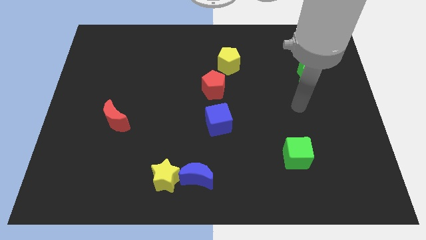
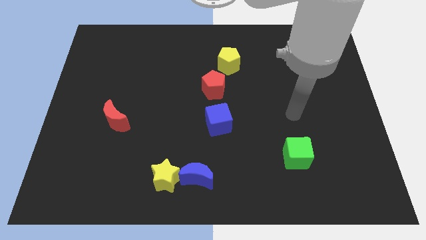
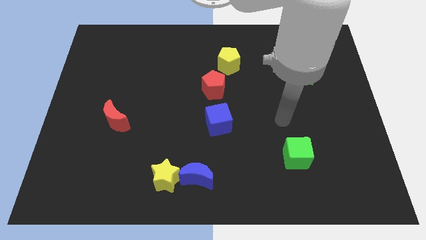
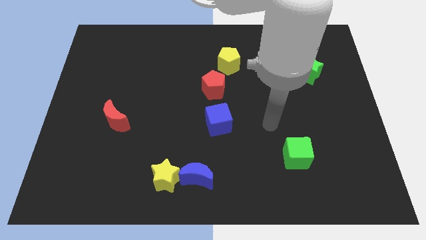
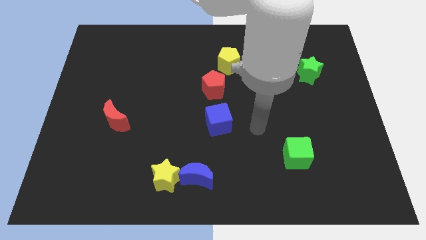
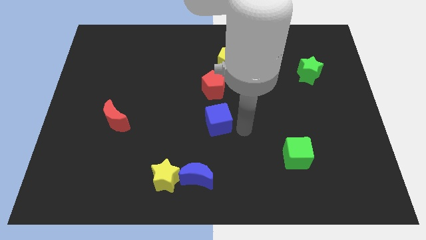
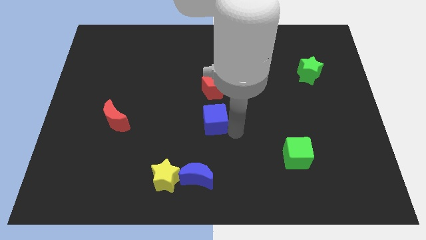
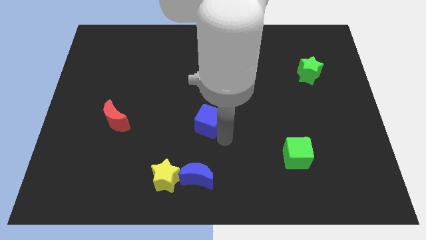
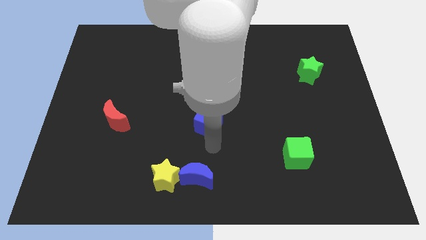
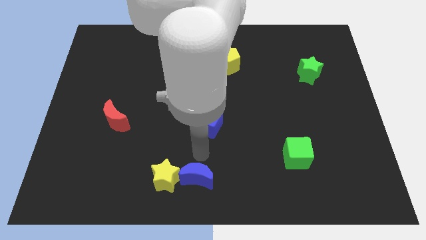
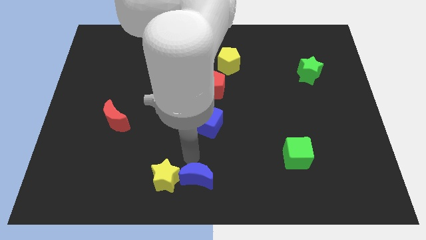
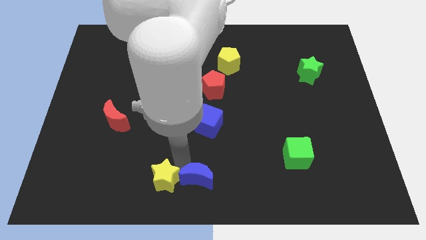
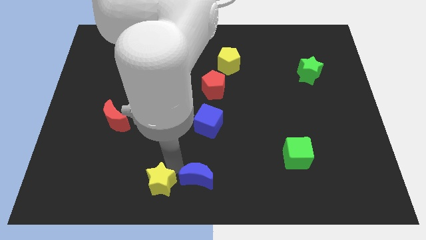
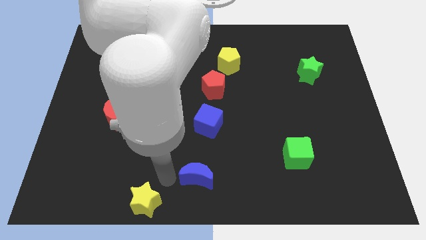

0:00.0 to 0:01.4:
pull the blue moon apart from the yellow star

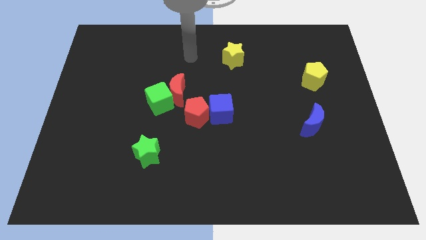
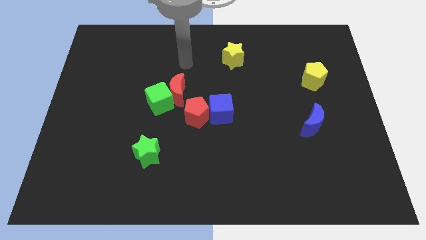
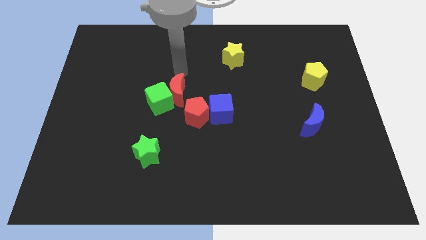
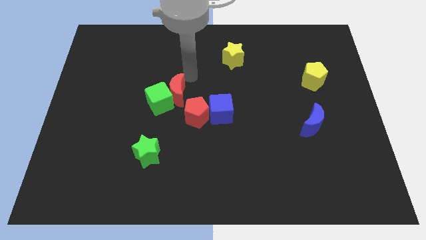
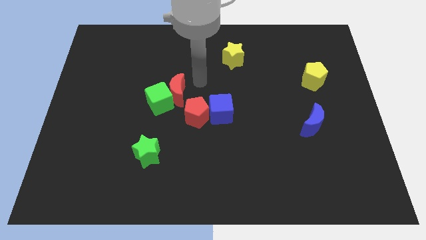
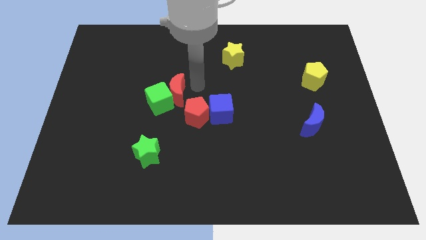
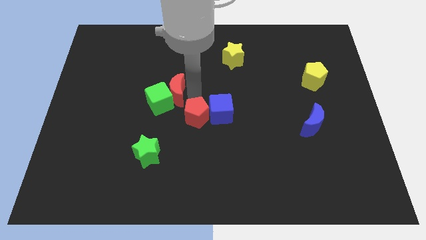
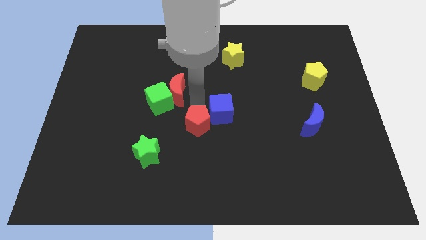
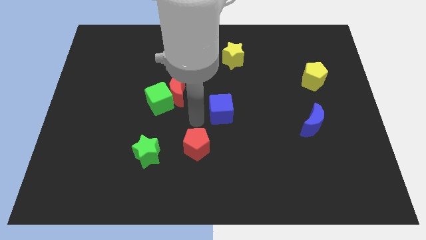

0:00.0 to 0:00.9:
pull the blue cube apart from the red pentagon

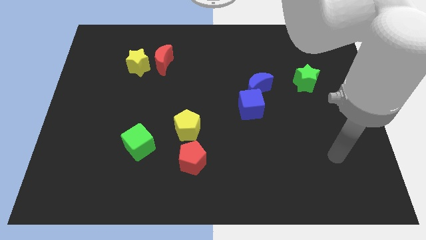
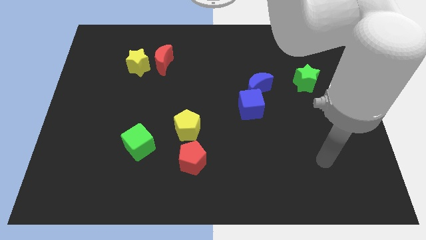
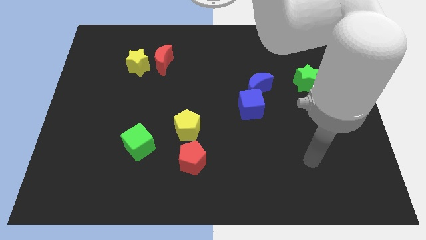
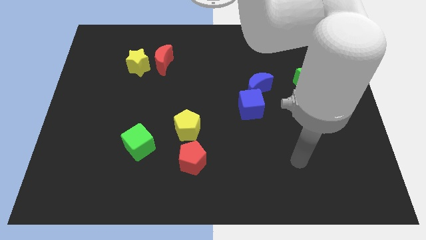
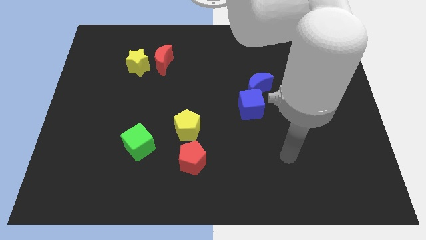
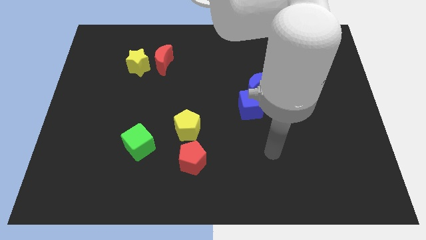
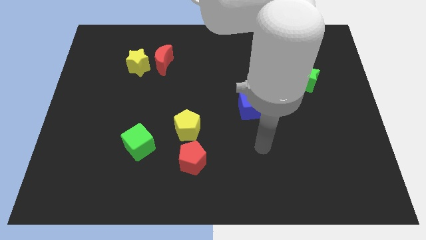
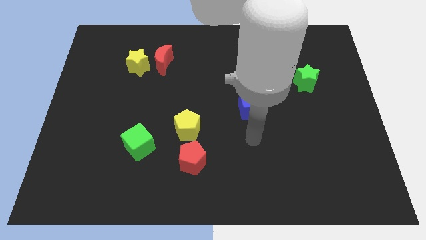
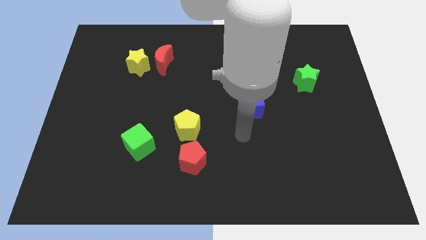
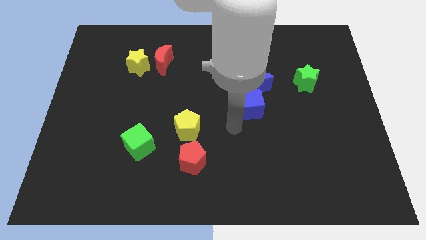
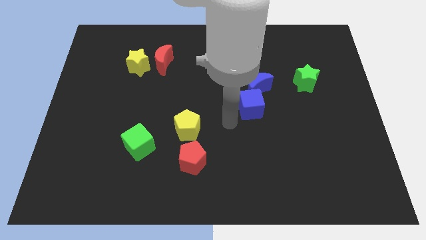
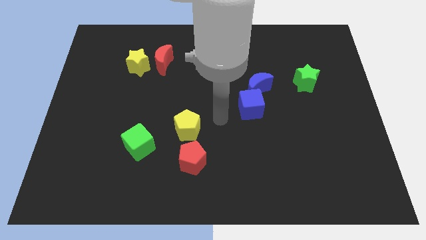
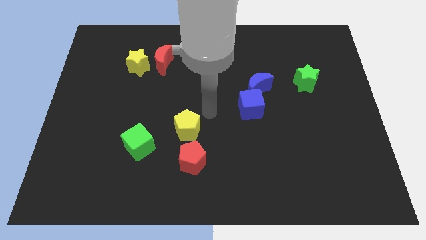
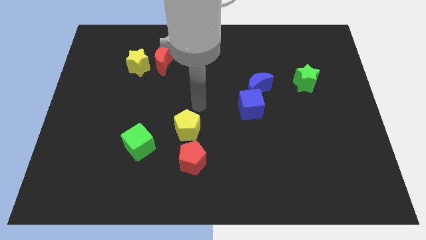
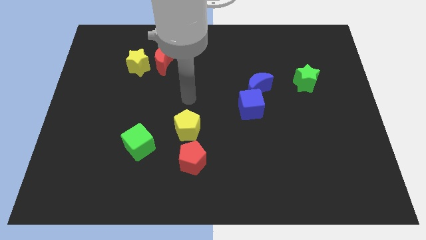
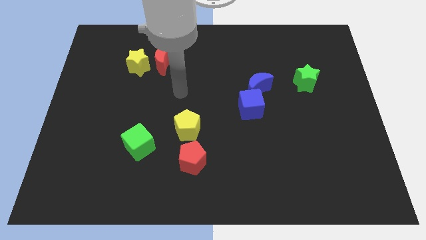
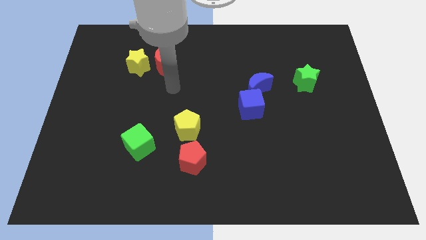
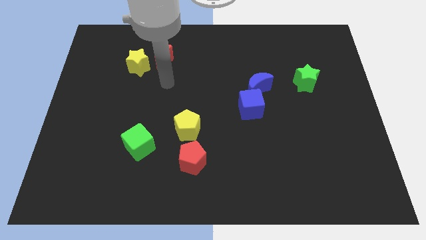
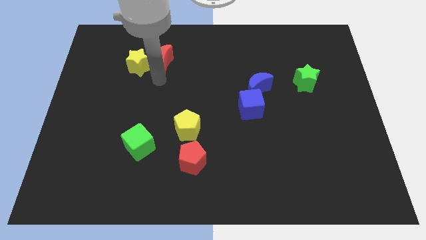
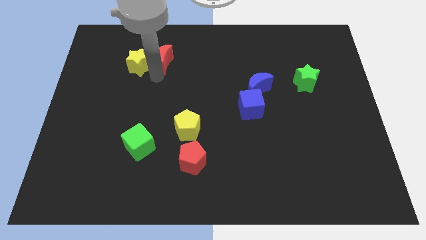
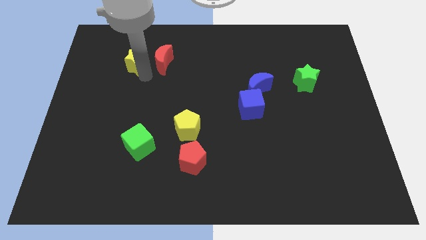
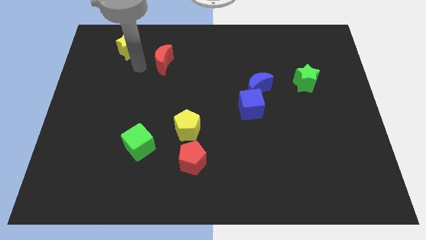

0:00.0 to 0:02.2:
move the red moon away from the yellow star

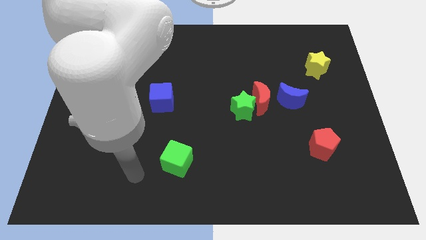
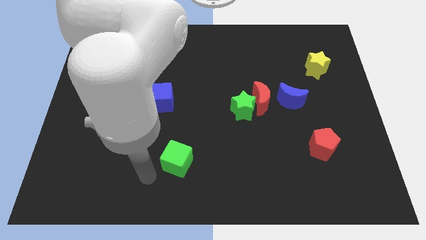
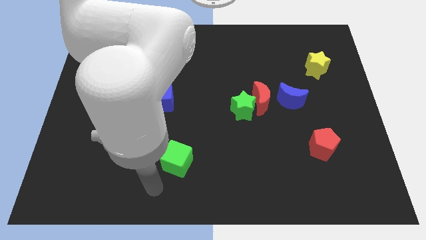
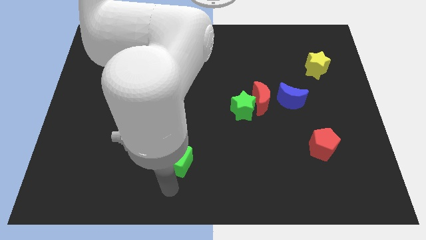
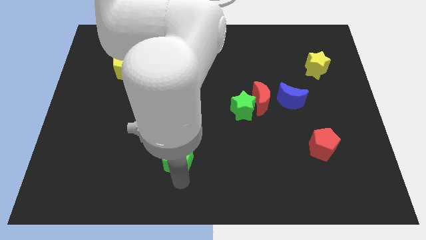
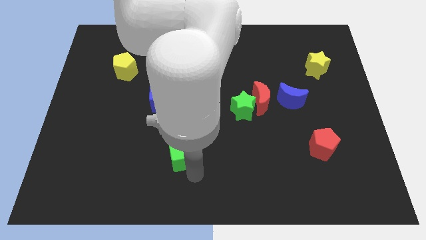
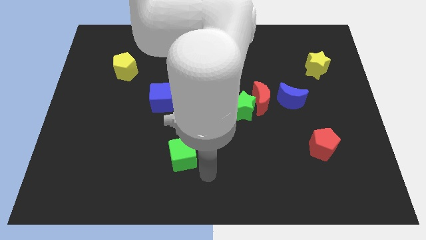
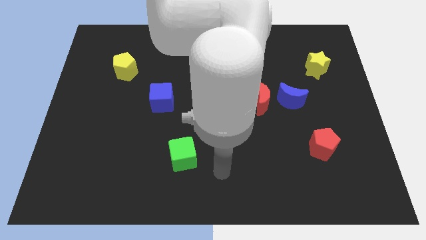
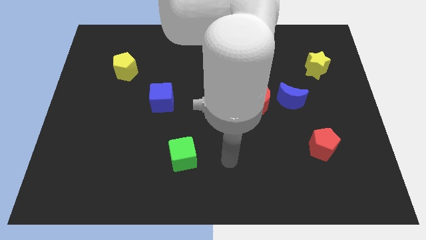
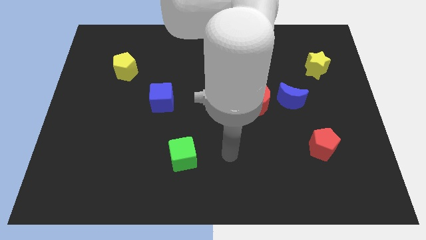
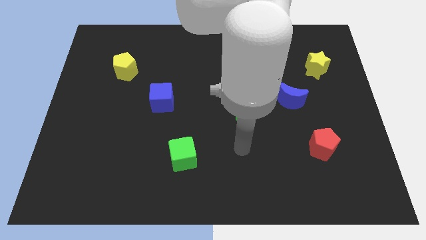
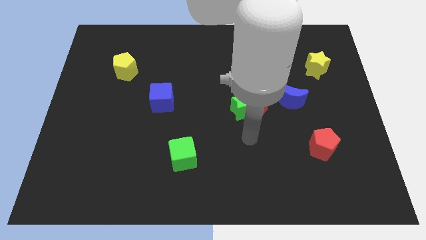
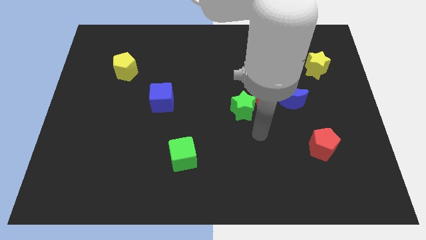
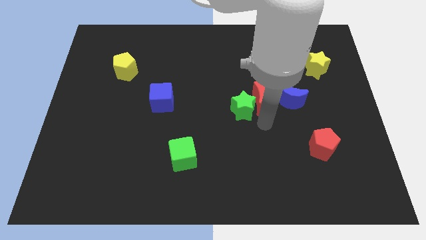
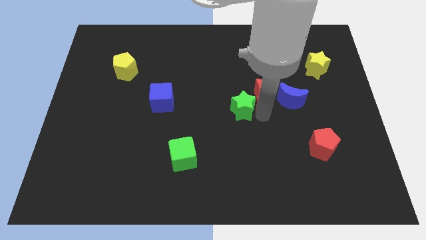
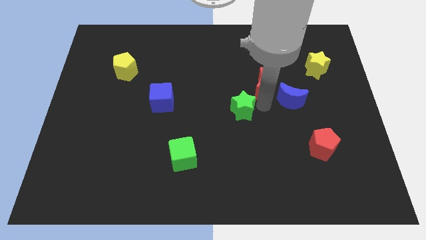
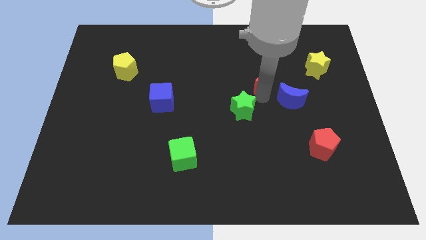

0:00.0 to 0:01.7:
separate the green star from the red moon

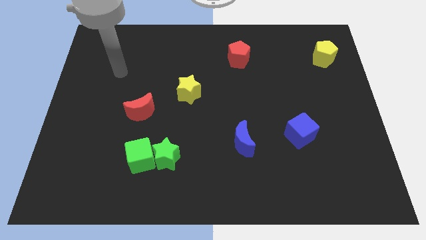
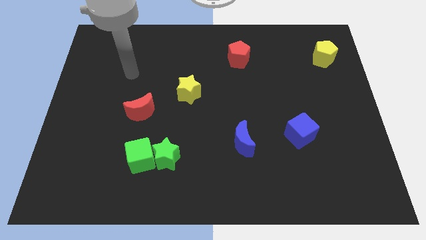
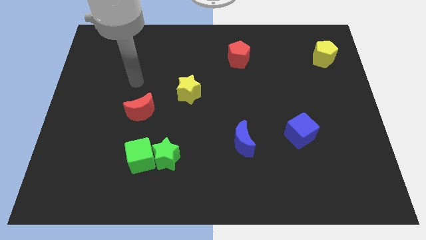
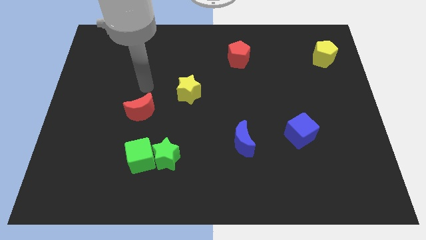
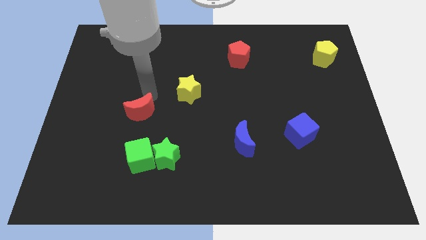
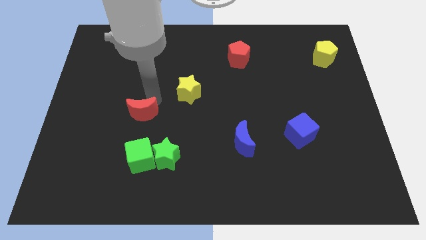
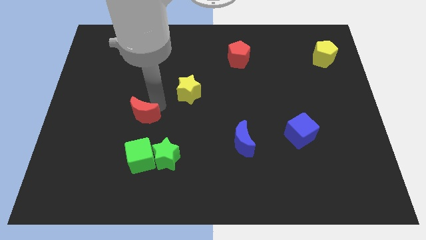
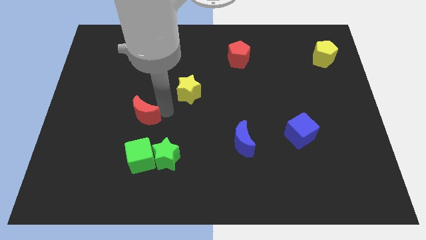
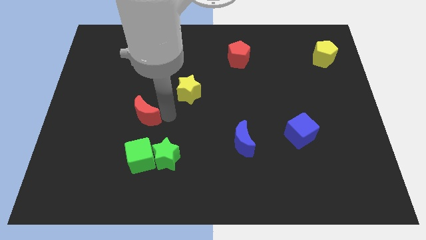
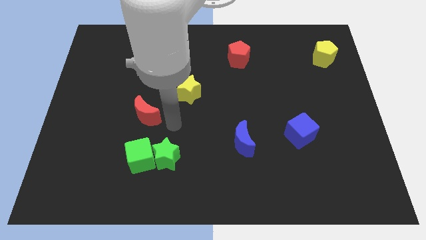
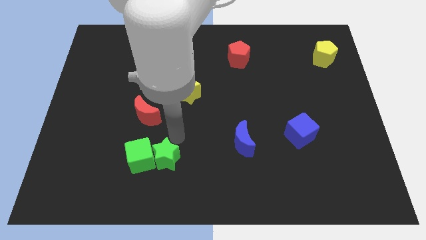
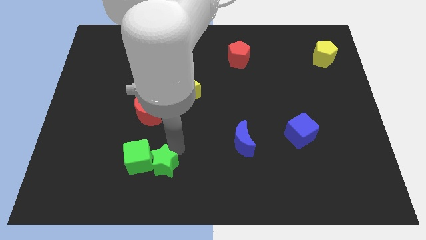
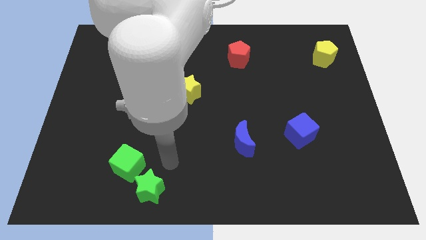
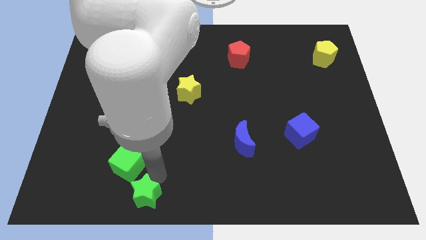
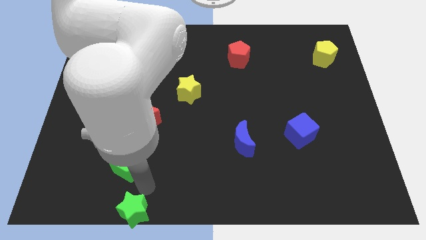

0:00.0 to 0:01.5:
separate the green cube from the green star

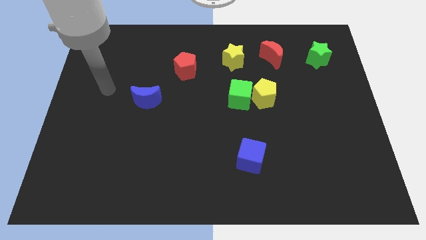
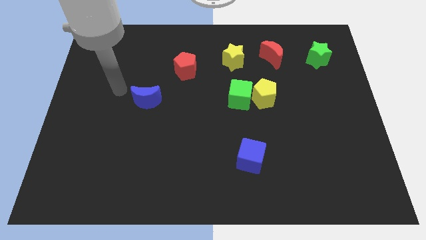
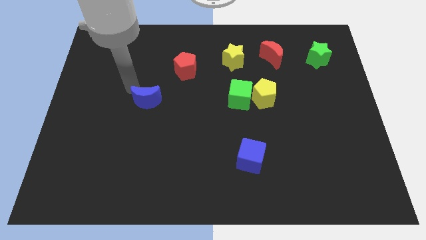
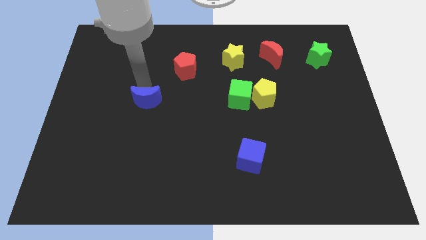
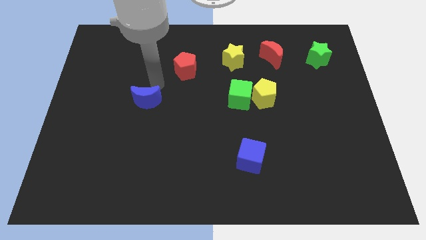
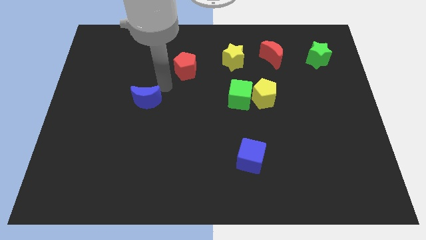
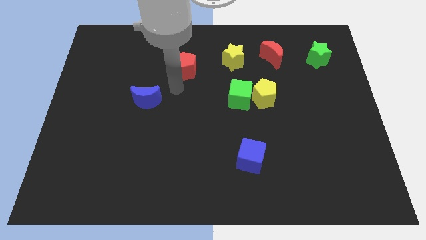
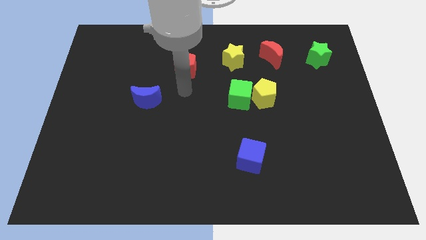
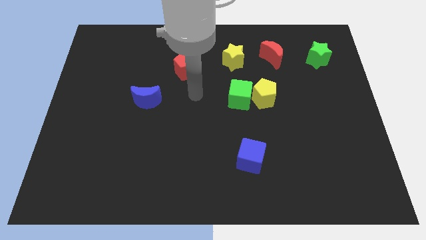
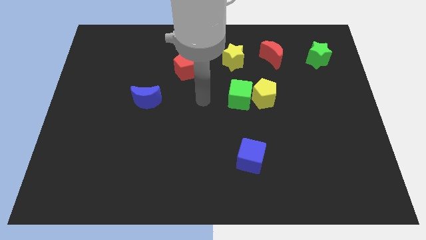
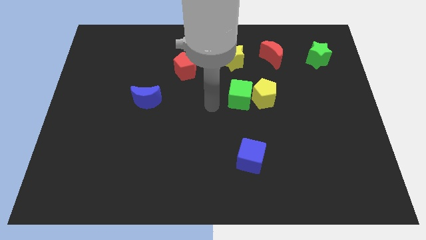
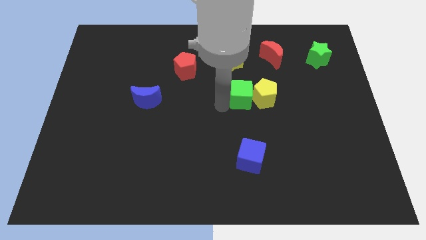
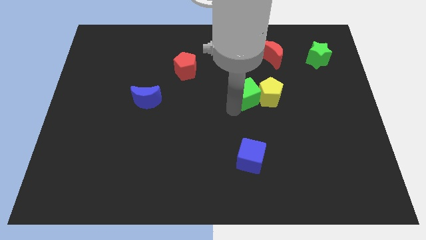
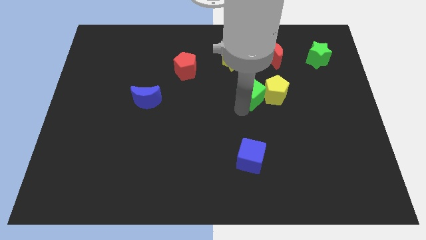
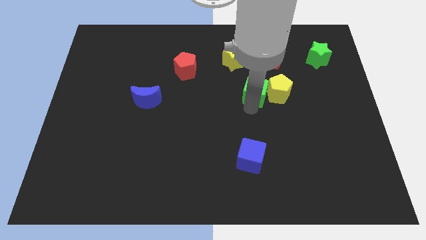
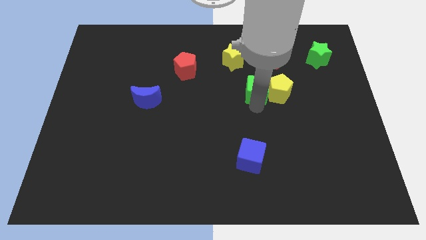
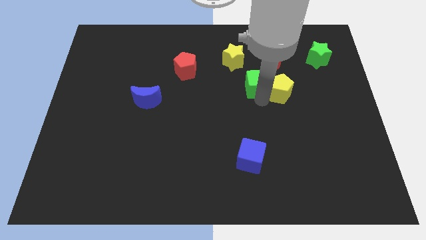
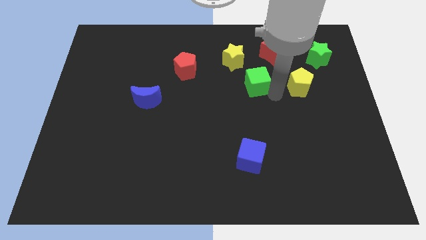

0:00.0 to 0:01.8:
pull the green cube apart from the yellow pentagon
